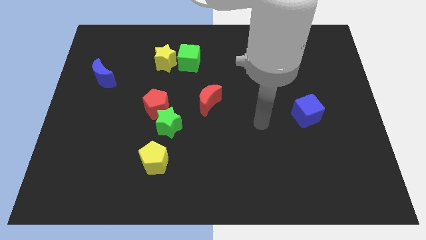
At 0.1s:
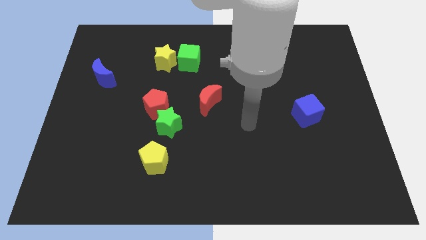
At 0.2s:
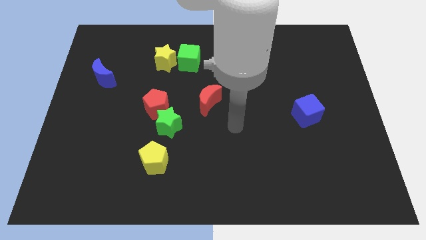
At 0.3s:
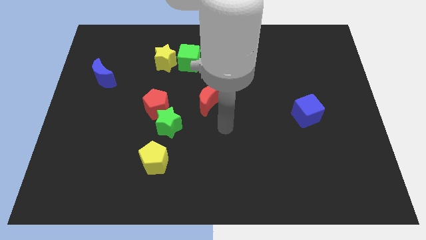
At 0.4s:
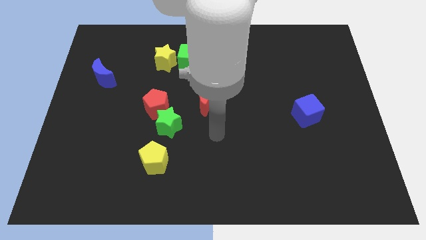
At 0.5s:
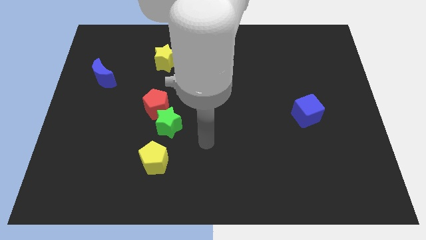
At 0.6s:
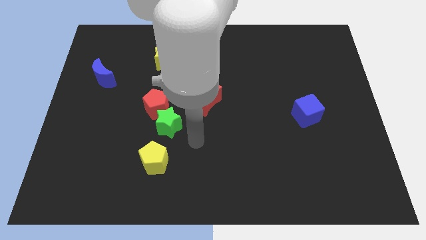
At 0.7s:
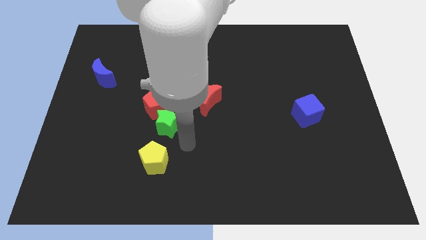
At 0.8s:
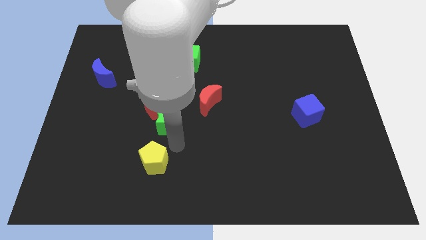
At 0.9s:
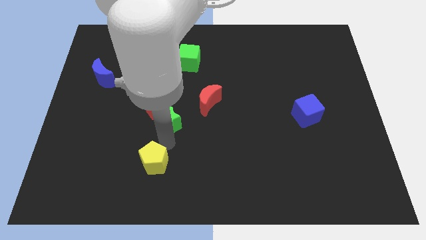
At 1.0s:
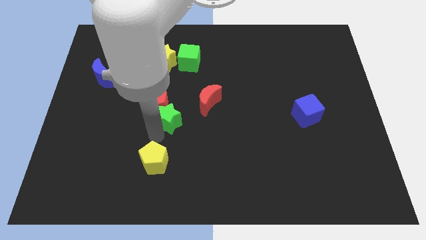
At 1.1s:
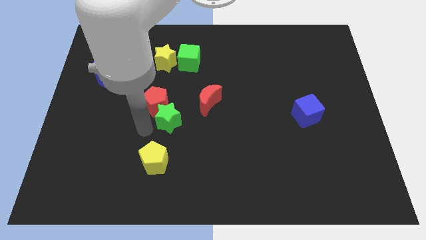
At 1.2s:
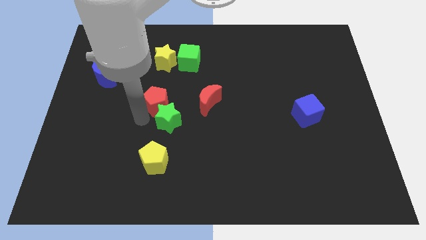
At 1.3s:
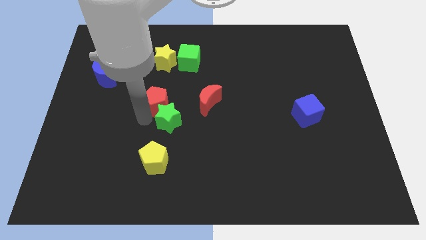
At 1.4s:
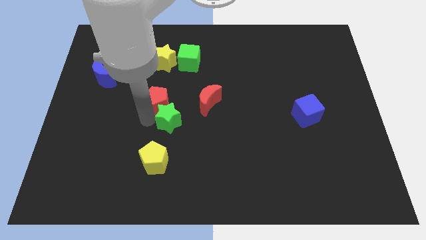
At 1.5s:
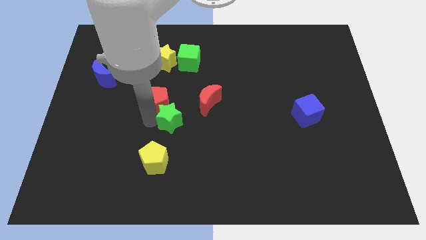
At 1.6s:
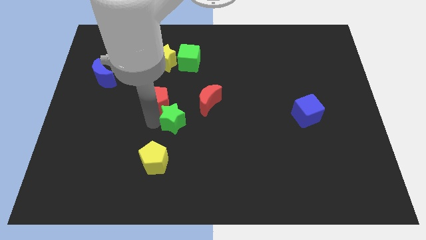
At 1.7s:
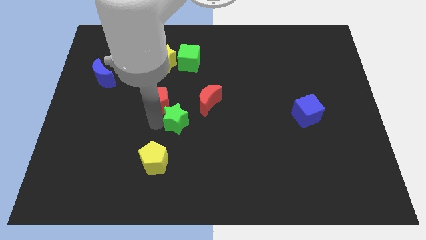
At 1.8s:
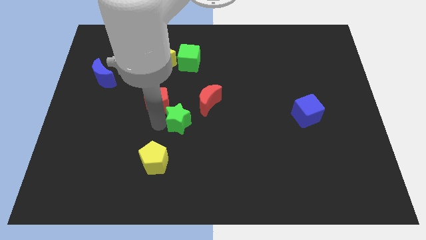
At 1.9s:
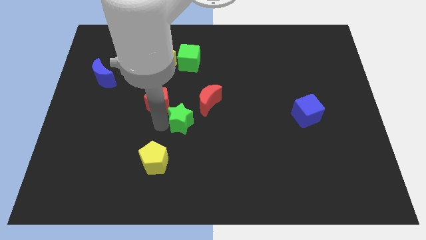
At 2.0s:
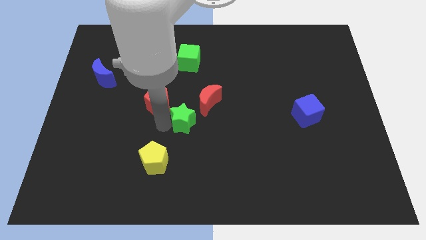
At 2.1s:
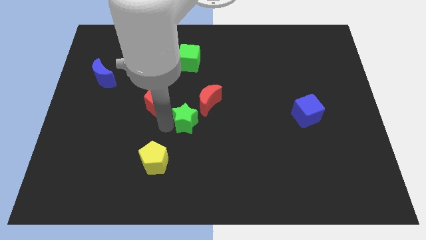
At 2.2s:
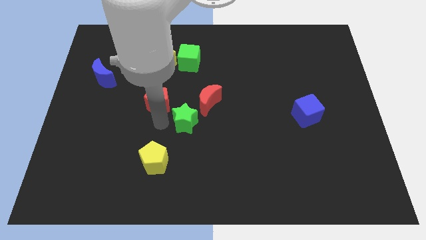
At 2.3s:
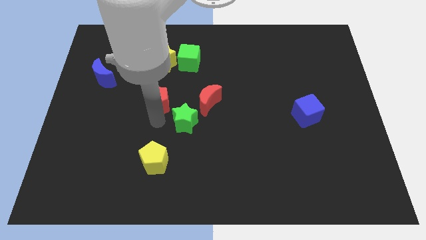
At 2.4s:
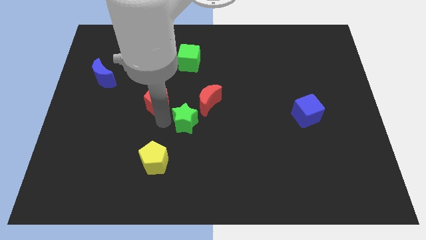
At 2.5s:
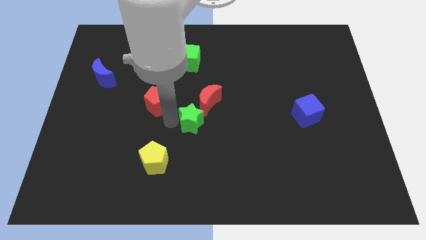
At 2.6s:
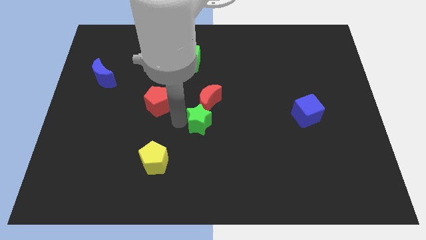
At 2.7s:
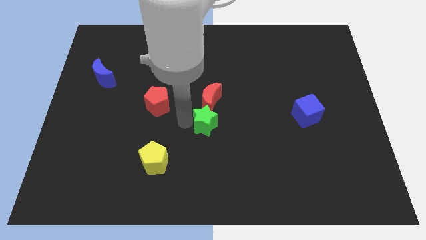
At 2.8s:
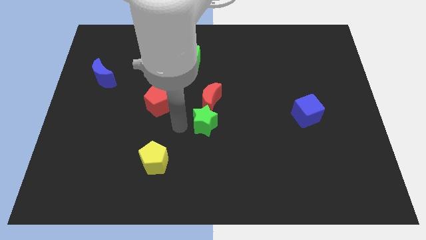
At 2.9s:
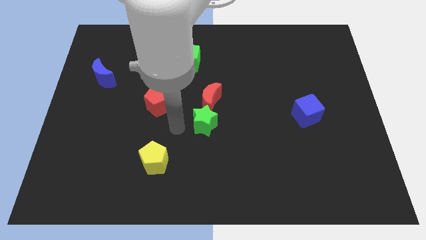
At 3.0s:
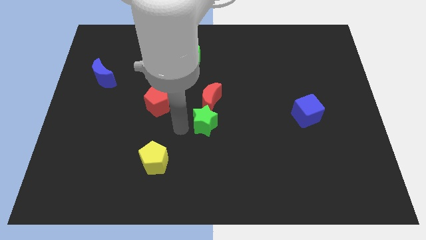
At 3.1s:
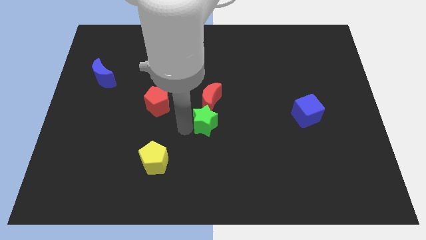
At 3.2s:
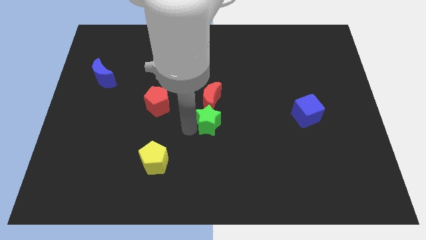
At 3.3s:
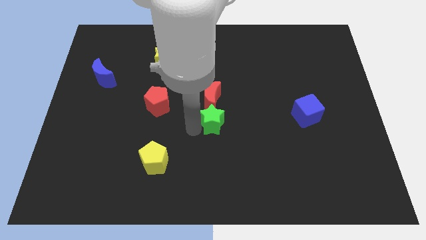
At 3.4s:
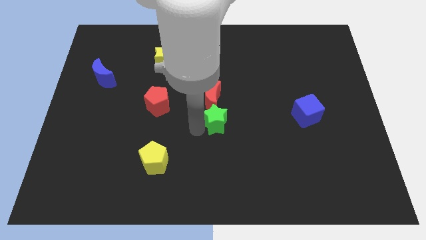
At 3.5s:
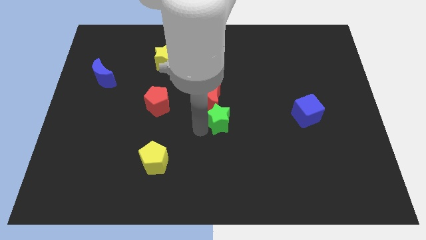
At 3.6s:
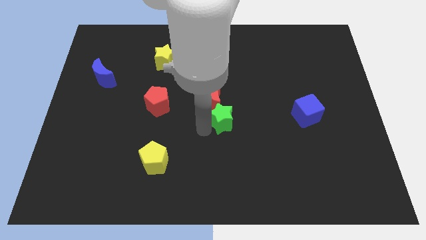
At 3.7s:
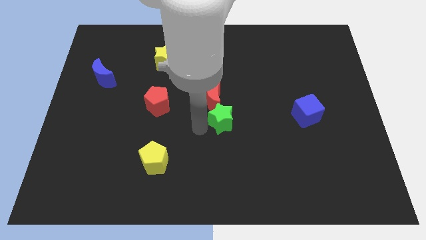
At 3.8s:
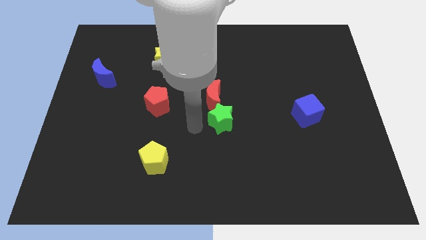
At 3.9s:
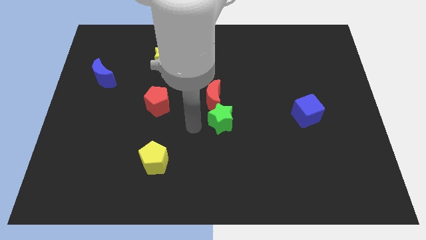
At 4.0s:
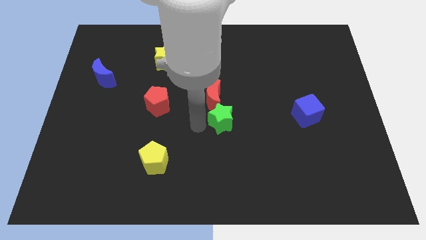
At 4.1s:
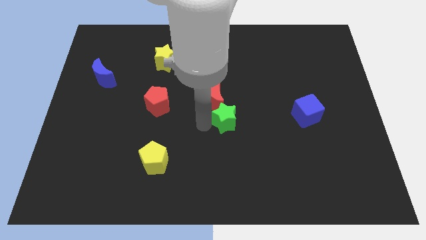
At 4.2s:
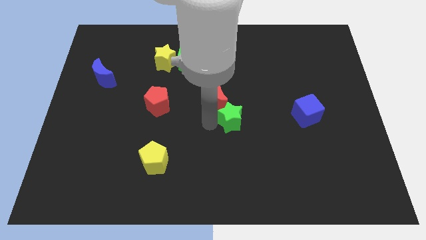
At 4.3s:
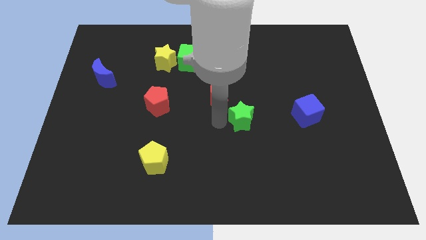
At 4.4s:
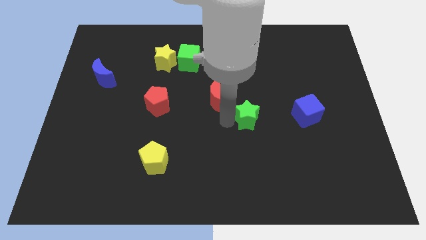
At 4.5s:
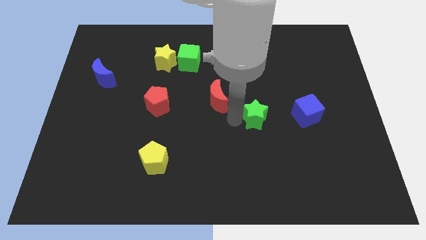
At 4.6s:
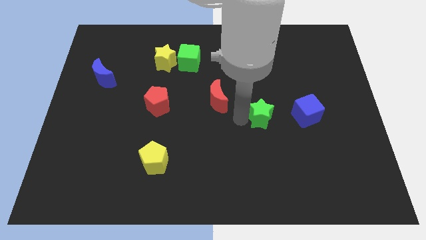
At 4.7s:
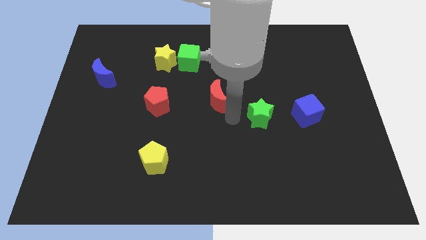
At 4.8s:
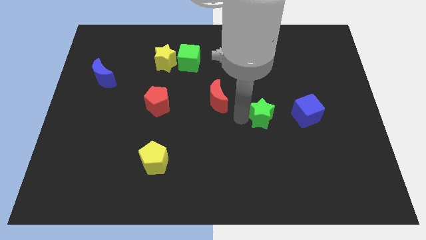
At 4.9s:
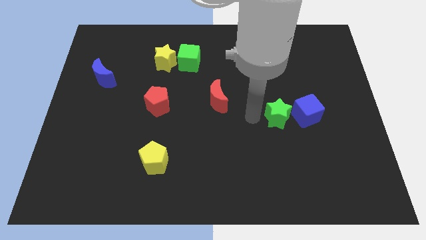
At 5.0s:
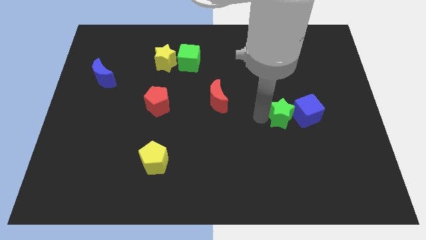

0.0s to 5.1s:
move the green star close to the blue cube

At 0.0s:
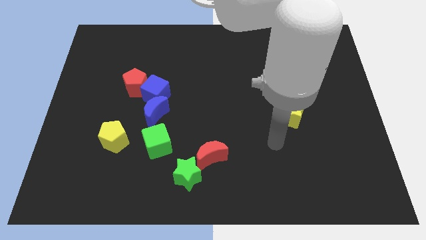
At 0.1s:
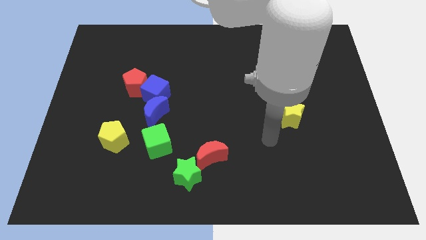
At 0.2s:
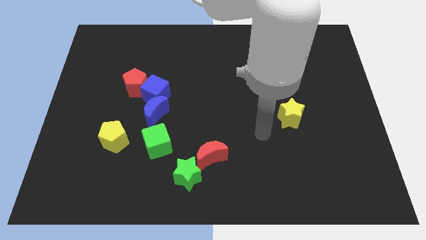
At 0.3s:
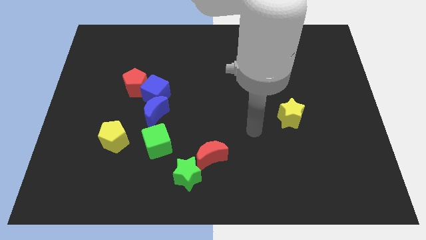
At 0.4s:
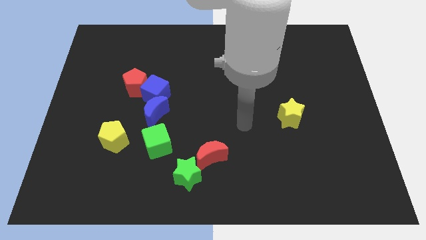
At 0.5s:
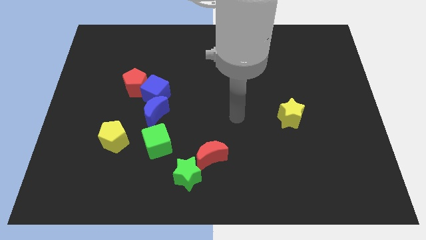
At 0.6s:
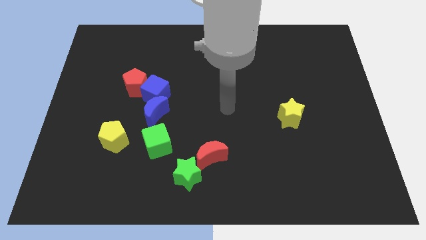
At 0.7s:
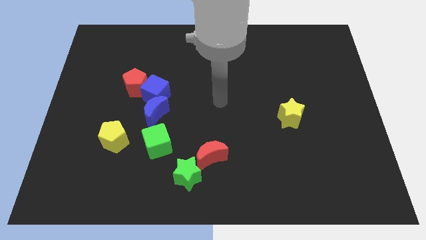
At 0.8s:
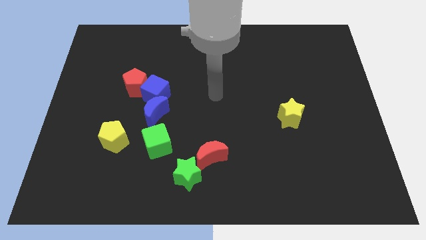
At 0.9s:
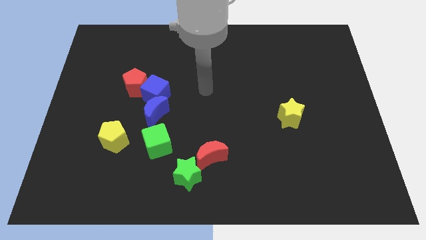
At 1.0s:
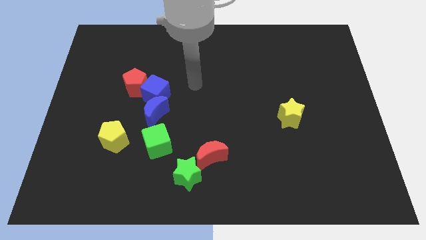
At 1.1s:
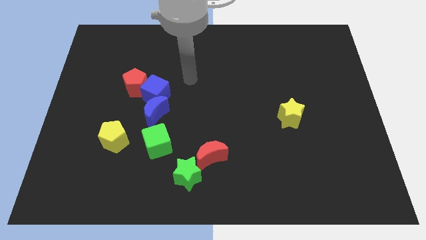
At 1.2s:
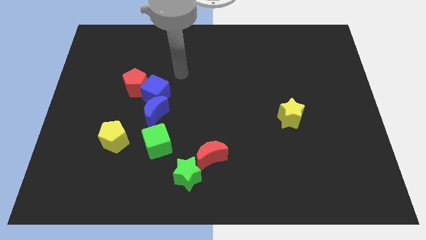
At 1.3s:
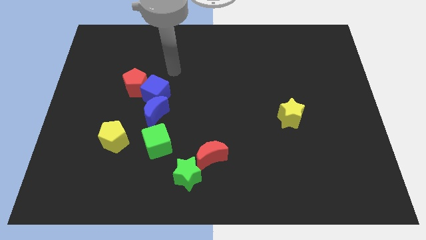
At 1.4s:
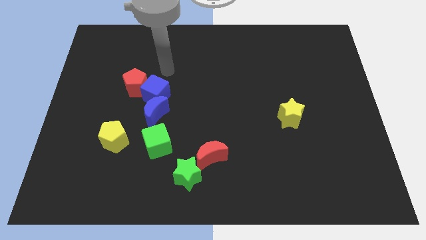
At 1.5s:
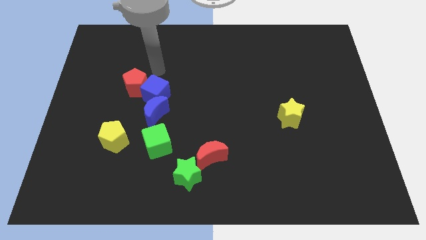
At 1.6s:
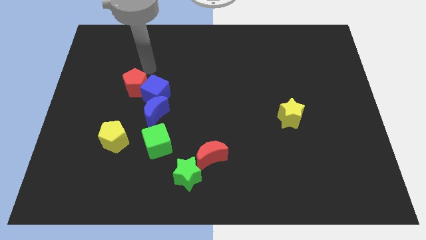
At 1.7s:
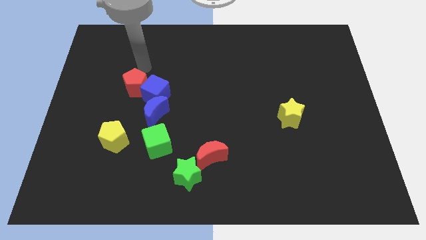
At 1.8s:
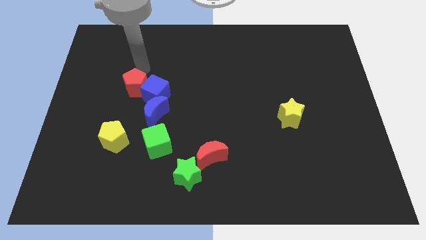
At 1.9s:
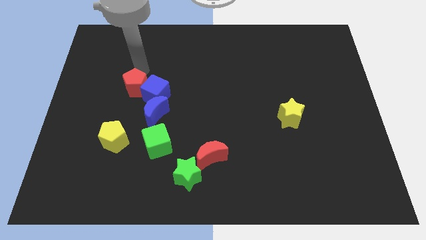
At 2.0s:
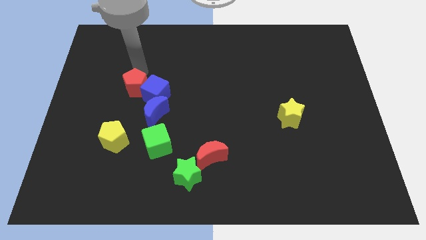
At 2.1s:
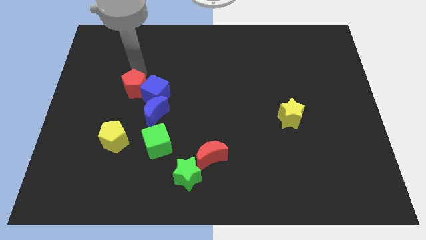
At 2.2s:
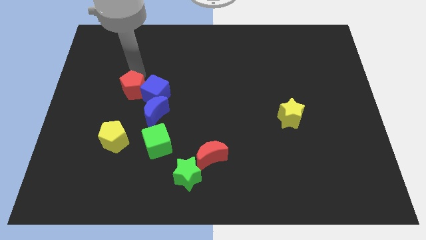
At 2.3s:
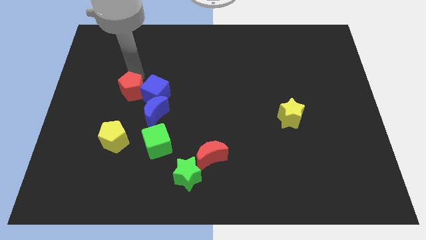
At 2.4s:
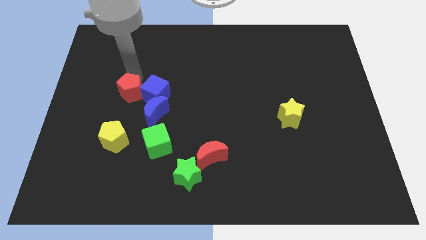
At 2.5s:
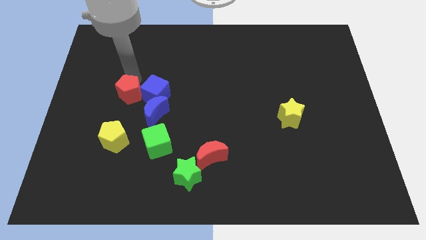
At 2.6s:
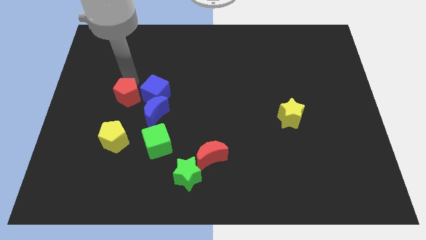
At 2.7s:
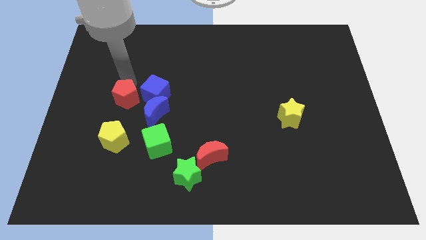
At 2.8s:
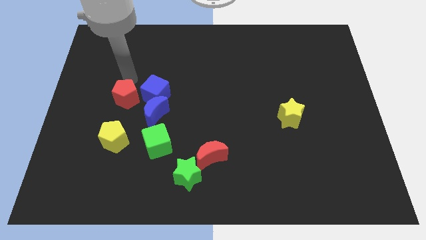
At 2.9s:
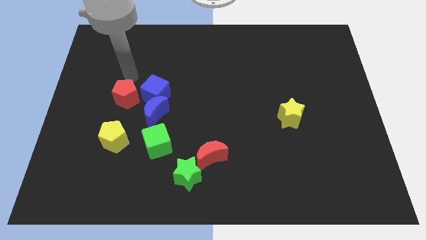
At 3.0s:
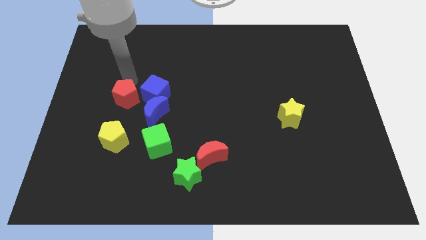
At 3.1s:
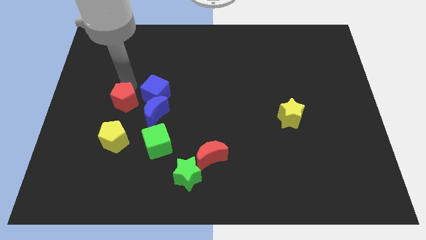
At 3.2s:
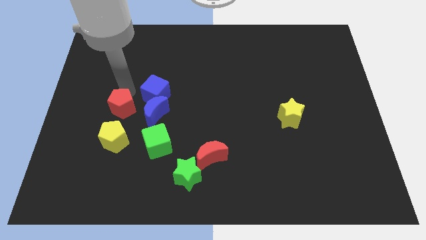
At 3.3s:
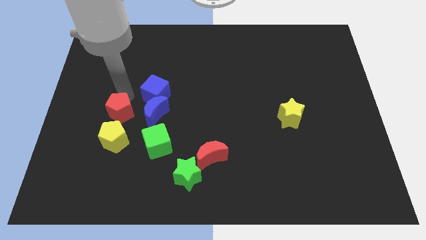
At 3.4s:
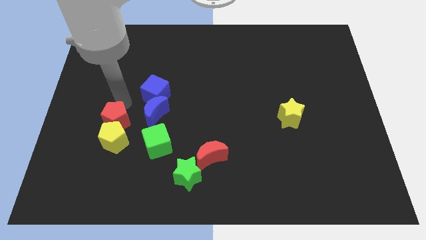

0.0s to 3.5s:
put the red pentagon next to the yellow pentagon
